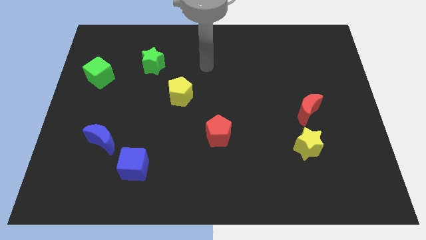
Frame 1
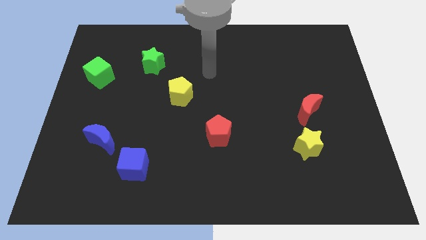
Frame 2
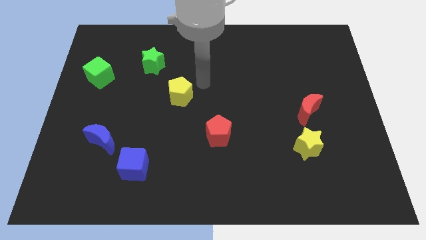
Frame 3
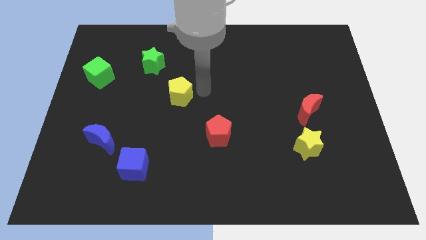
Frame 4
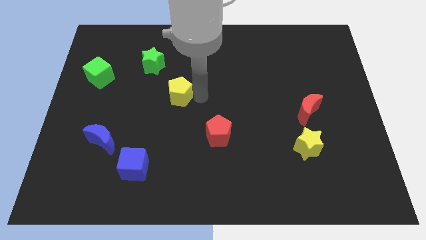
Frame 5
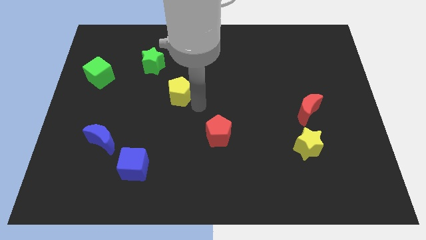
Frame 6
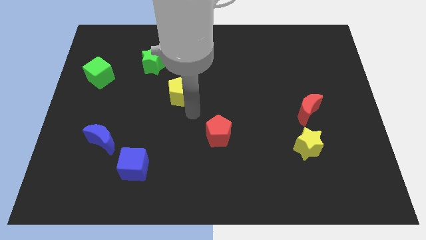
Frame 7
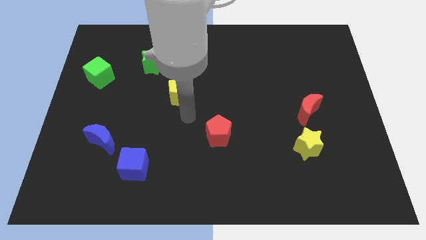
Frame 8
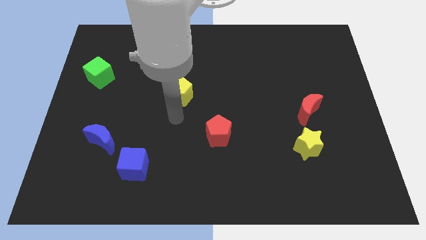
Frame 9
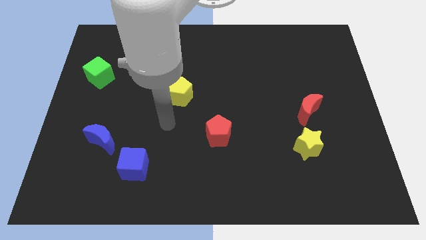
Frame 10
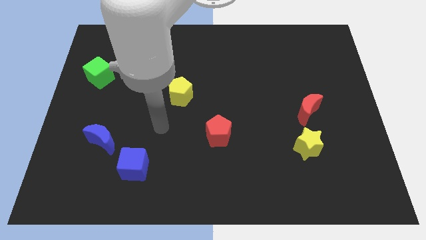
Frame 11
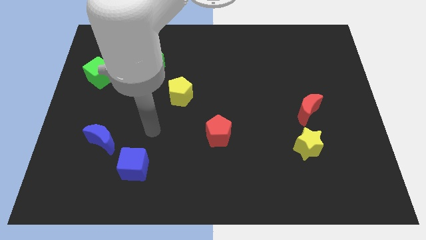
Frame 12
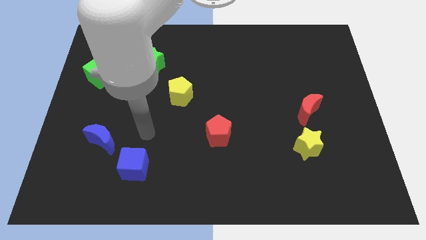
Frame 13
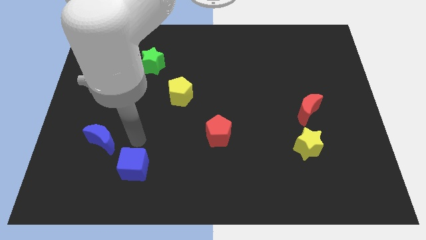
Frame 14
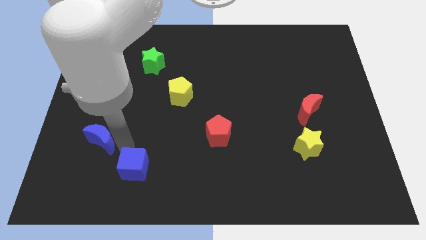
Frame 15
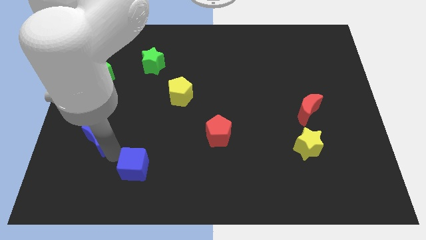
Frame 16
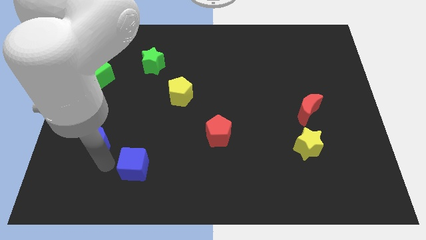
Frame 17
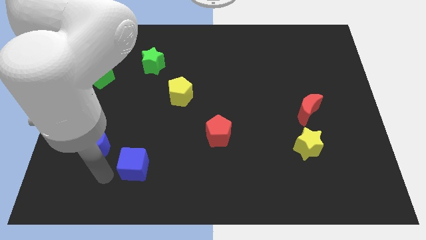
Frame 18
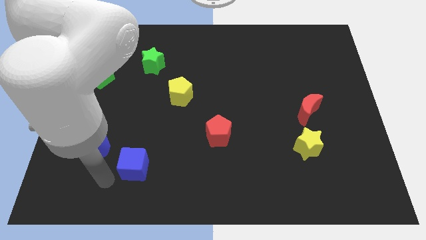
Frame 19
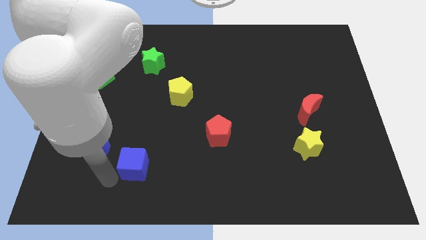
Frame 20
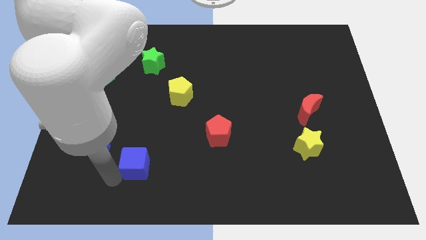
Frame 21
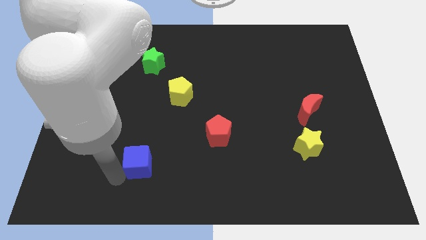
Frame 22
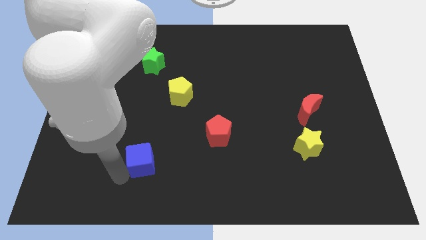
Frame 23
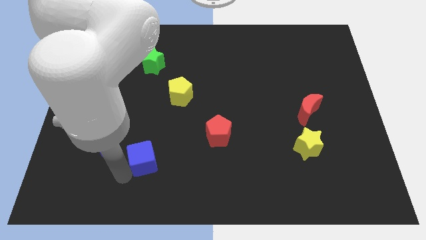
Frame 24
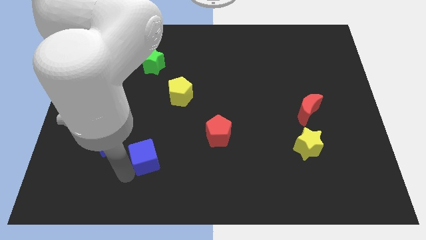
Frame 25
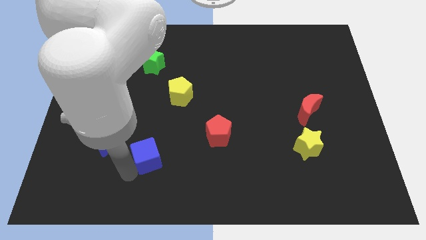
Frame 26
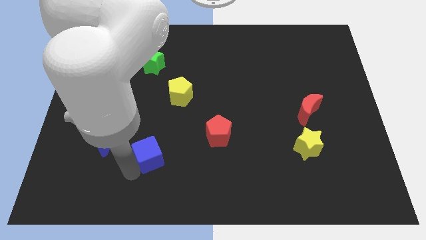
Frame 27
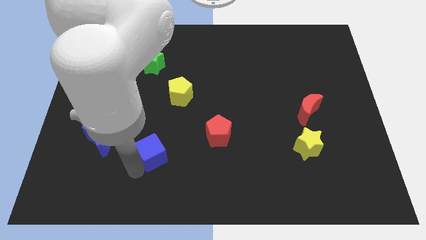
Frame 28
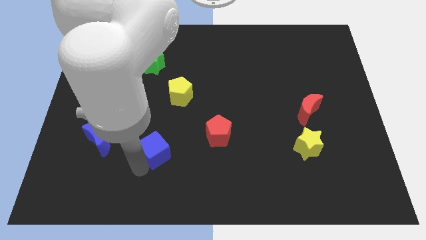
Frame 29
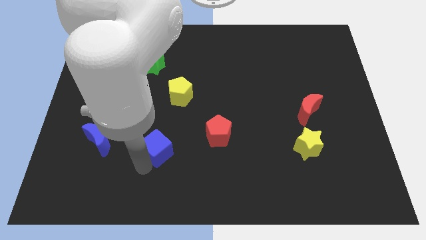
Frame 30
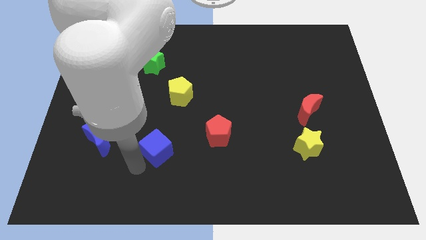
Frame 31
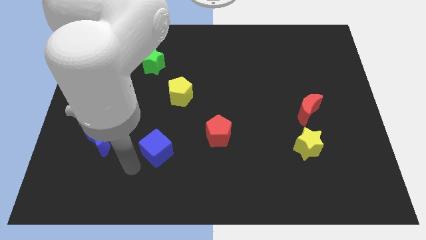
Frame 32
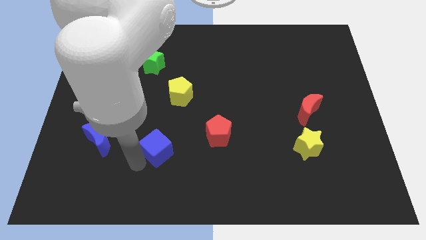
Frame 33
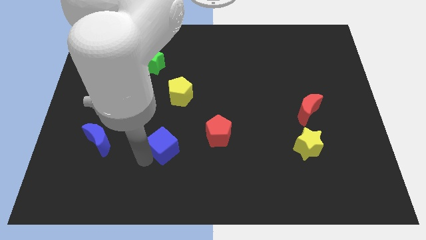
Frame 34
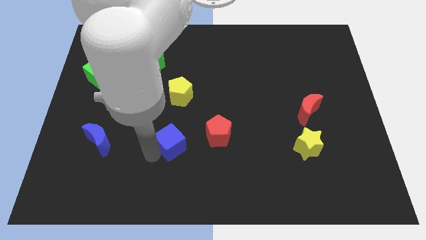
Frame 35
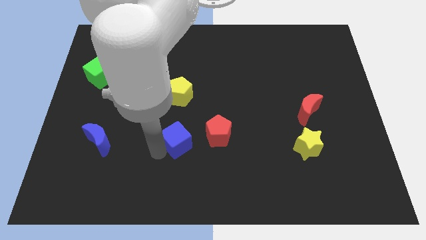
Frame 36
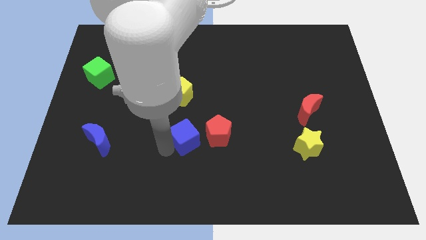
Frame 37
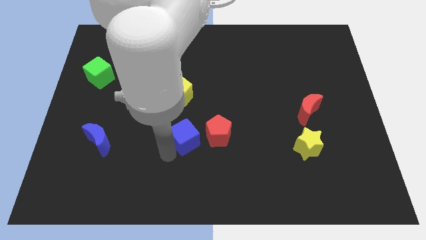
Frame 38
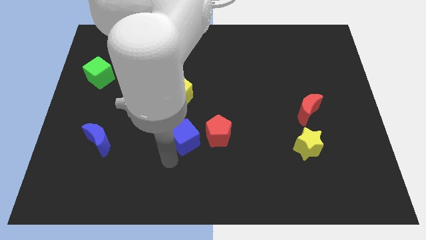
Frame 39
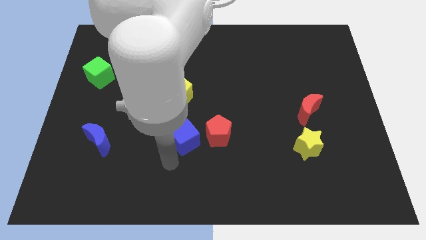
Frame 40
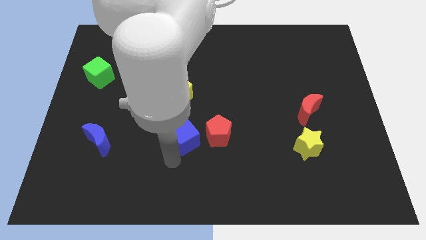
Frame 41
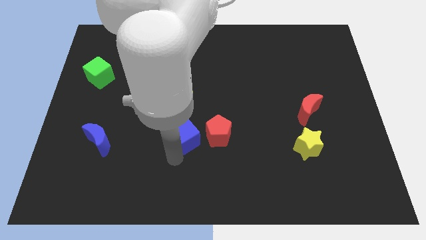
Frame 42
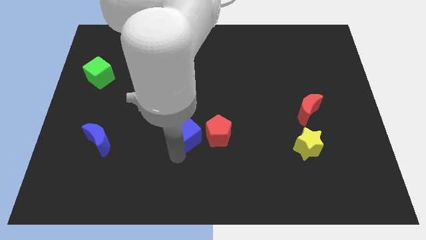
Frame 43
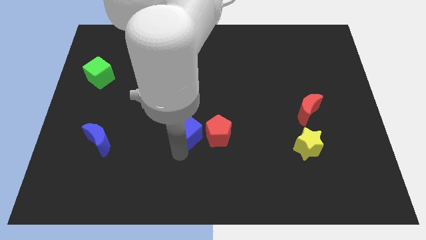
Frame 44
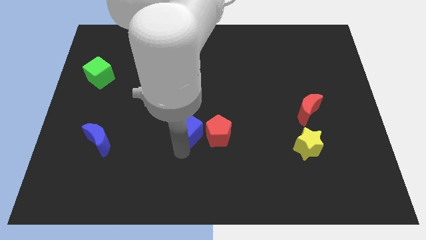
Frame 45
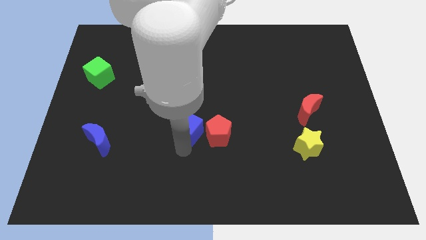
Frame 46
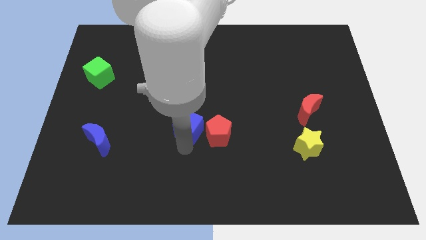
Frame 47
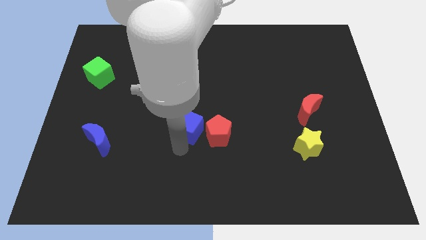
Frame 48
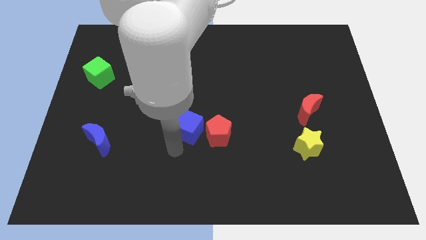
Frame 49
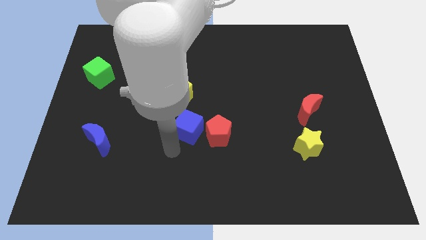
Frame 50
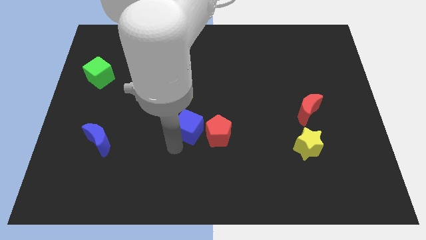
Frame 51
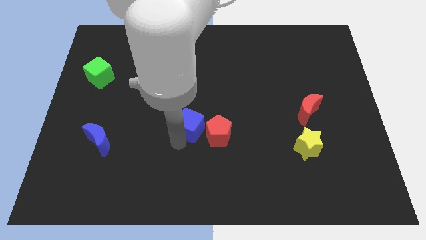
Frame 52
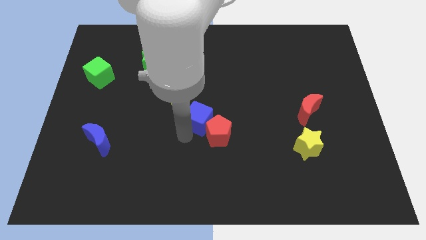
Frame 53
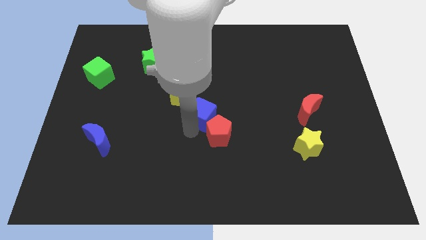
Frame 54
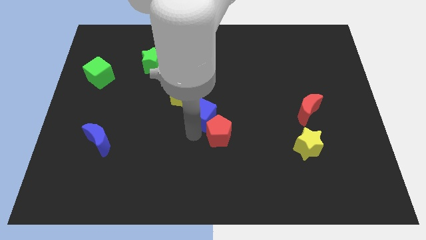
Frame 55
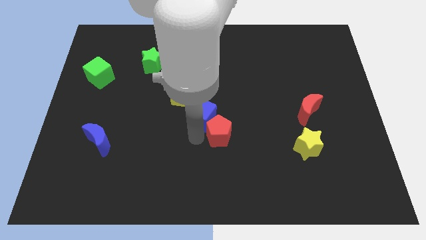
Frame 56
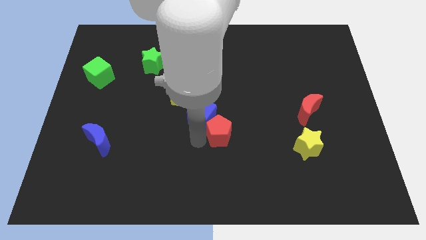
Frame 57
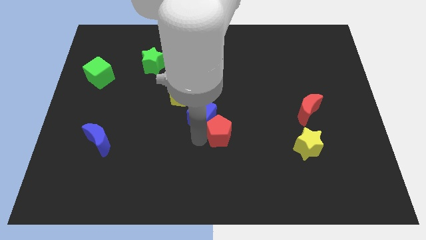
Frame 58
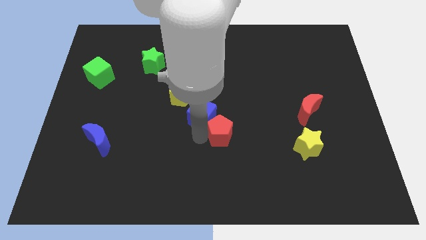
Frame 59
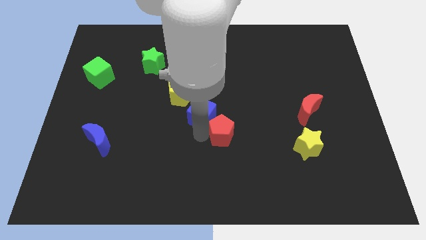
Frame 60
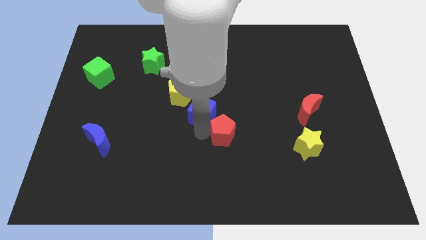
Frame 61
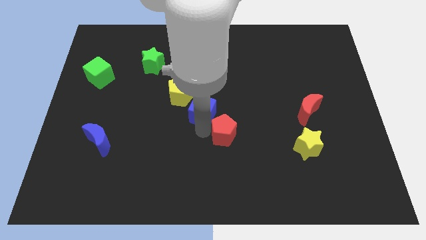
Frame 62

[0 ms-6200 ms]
push the blue cube upwards and to the right

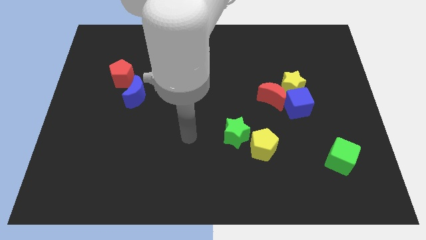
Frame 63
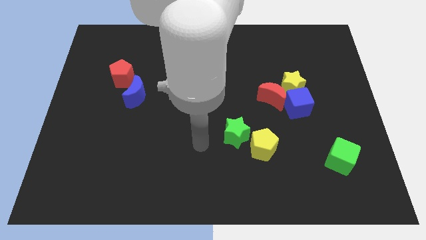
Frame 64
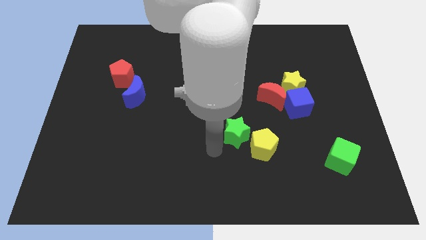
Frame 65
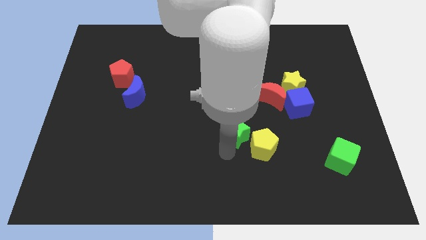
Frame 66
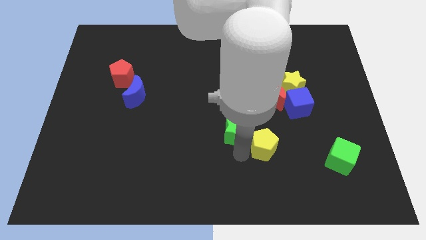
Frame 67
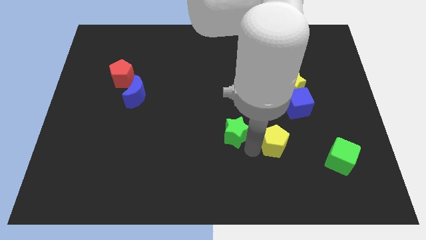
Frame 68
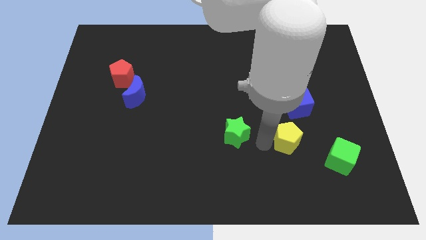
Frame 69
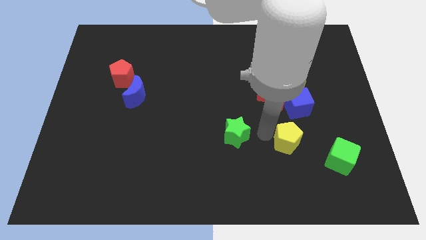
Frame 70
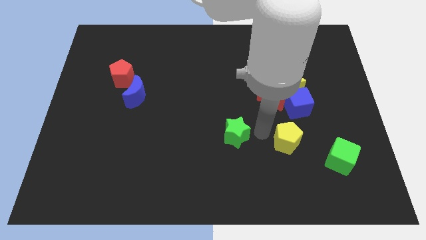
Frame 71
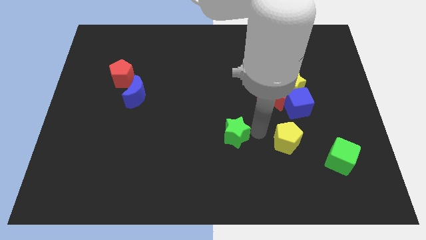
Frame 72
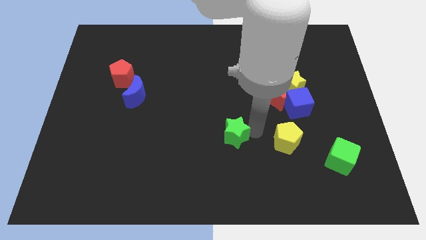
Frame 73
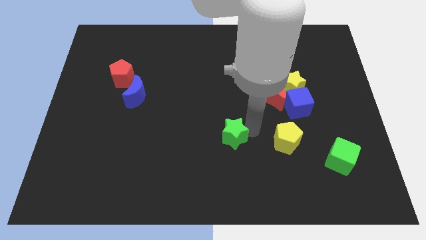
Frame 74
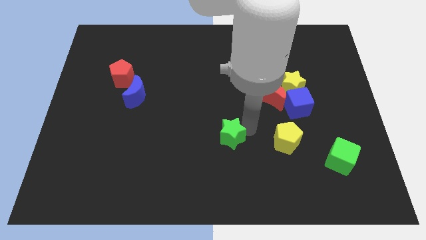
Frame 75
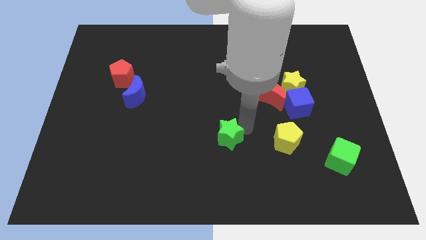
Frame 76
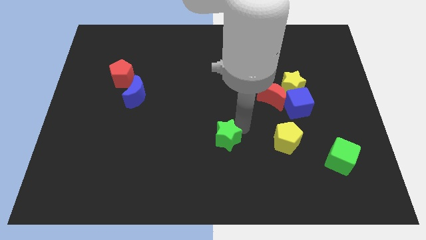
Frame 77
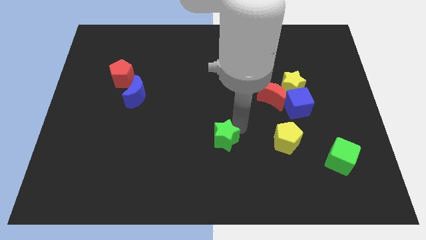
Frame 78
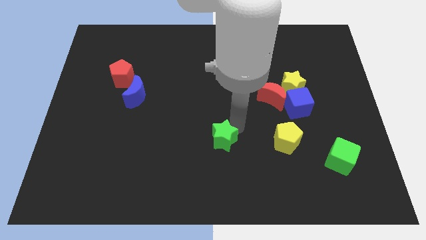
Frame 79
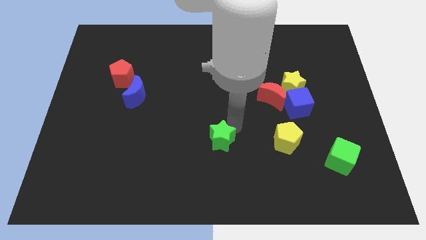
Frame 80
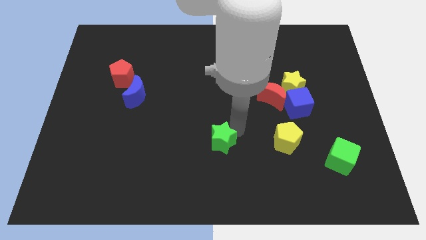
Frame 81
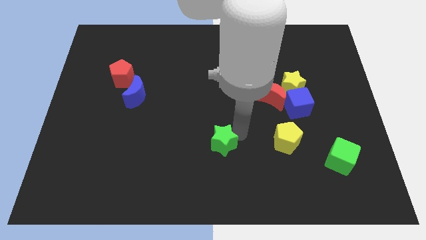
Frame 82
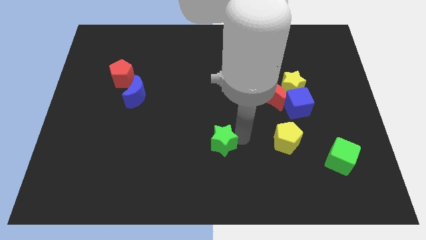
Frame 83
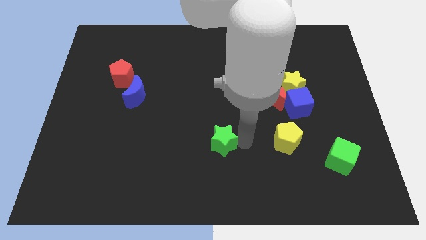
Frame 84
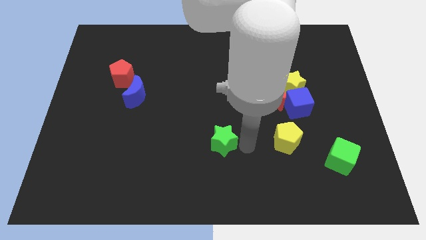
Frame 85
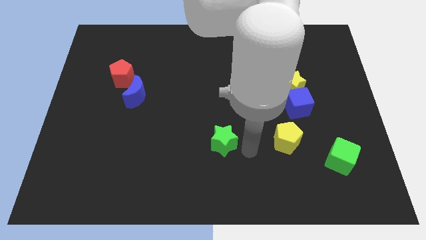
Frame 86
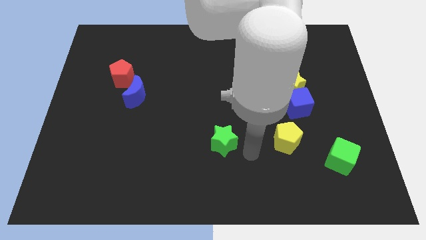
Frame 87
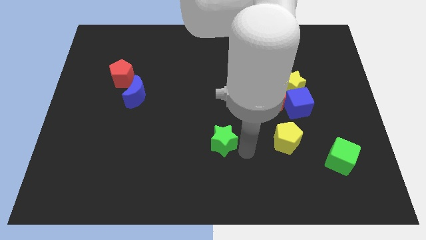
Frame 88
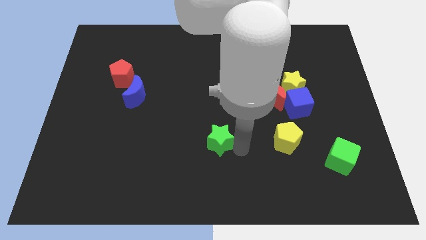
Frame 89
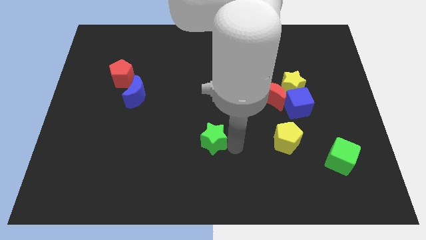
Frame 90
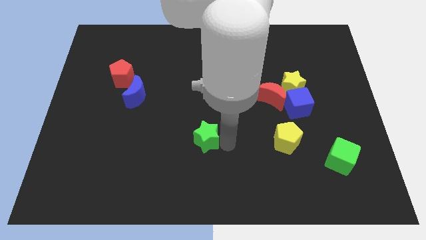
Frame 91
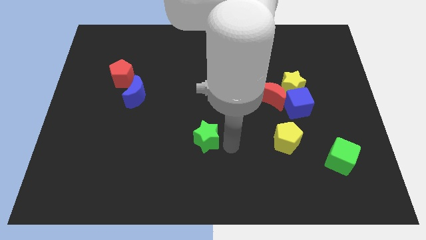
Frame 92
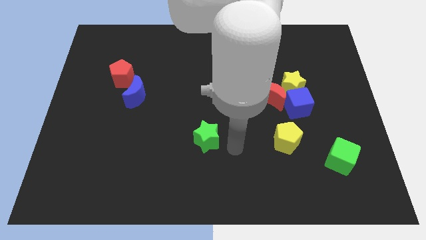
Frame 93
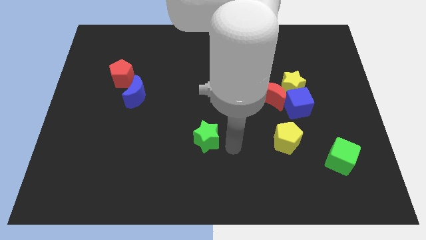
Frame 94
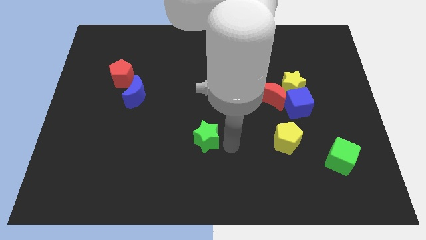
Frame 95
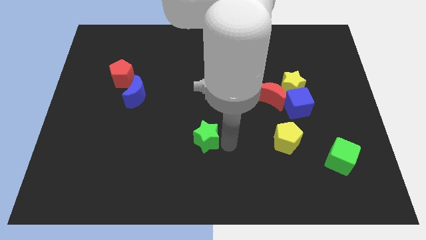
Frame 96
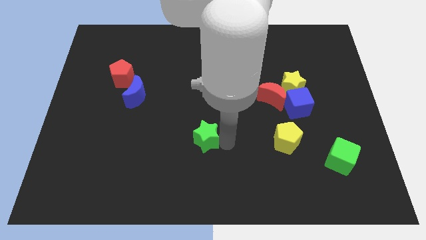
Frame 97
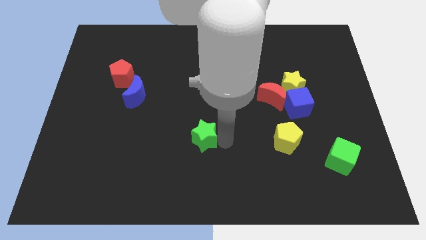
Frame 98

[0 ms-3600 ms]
slightly slide the green star left
